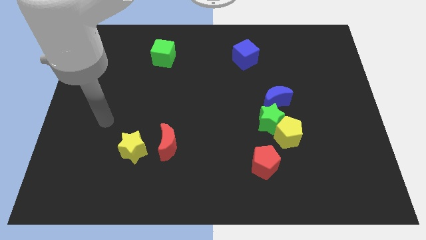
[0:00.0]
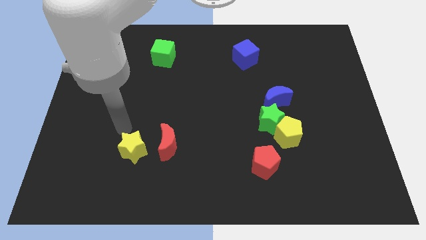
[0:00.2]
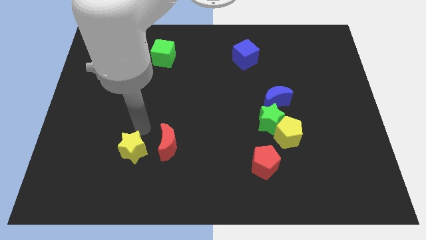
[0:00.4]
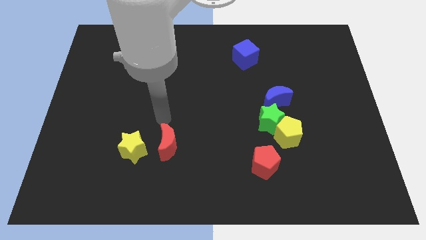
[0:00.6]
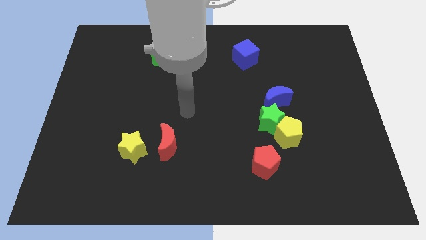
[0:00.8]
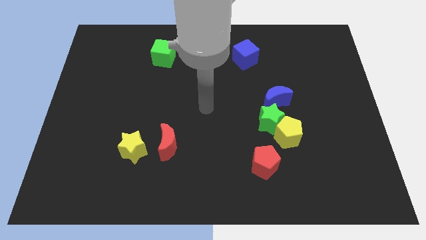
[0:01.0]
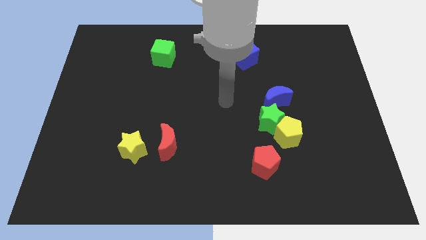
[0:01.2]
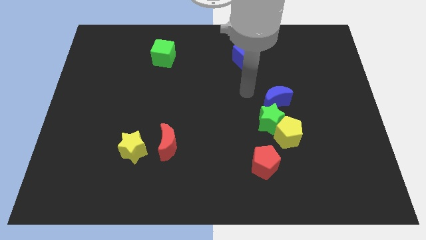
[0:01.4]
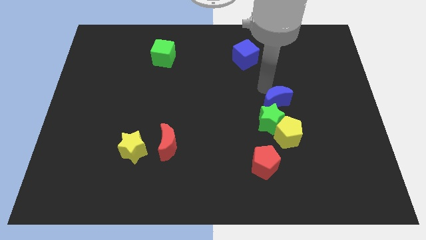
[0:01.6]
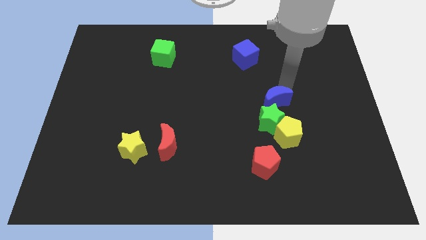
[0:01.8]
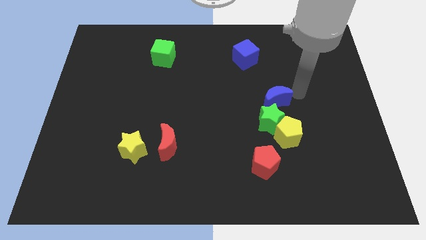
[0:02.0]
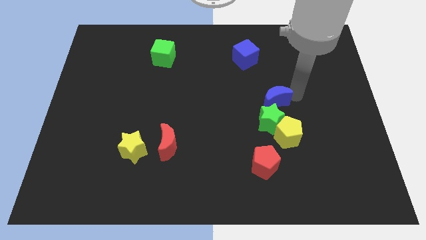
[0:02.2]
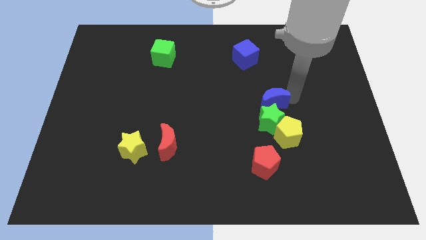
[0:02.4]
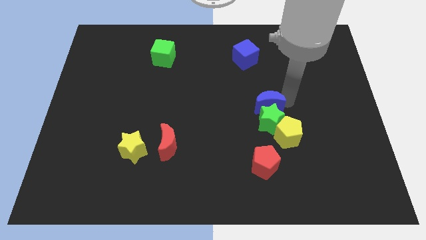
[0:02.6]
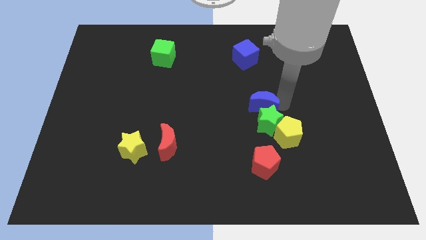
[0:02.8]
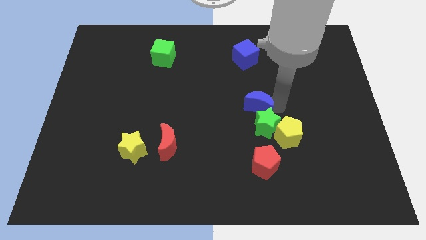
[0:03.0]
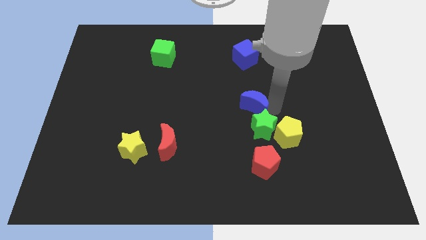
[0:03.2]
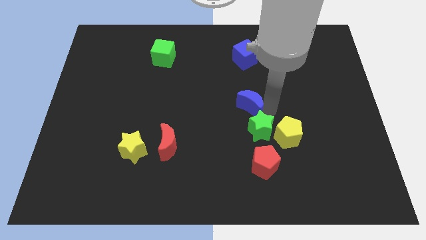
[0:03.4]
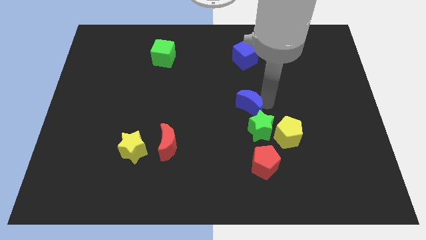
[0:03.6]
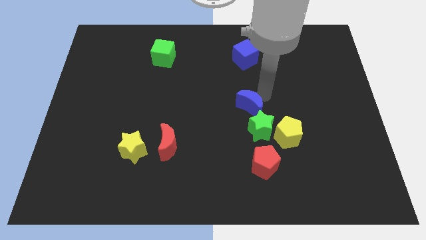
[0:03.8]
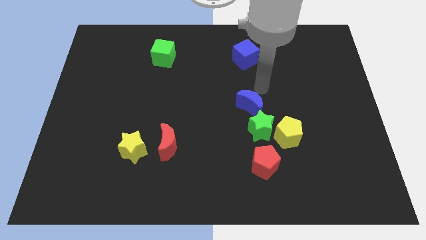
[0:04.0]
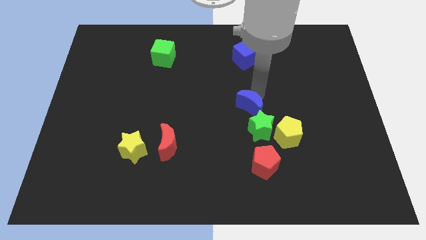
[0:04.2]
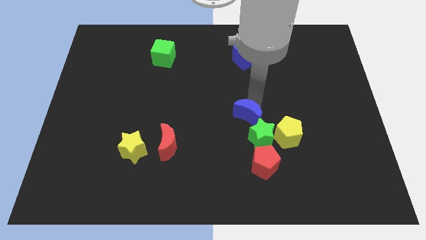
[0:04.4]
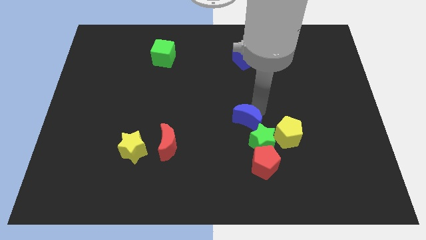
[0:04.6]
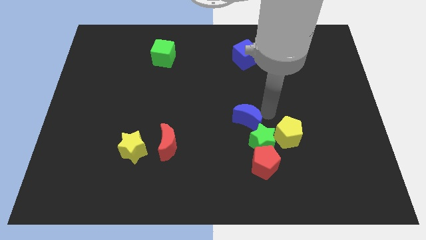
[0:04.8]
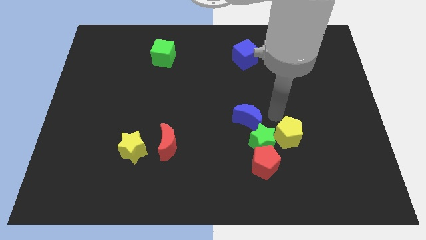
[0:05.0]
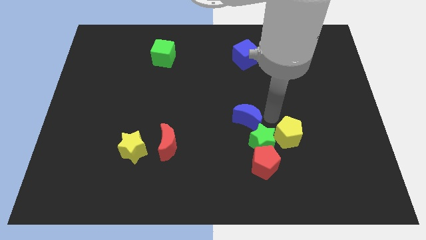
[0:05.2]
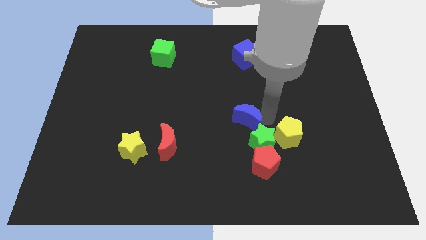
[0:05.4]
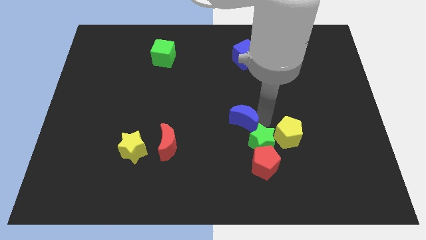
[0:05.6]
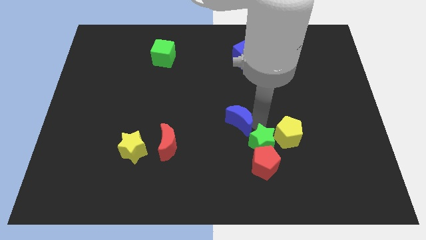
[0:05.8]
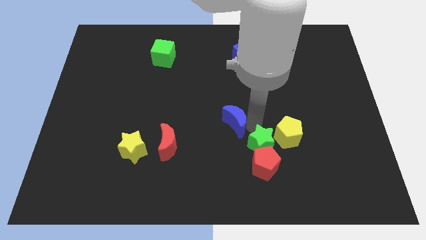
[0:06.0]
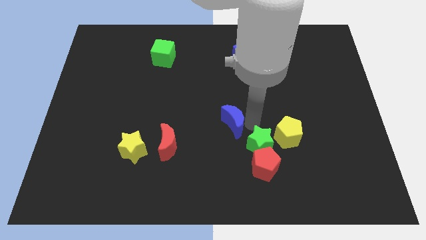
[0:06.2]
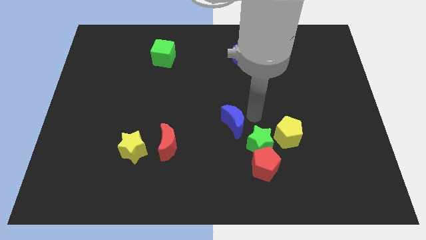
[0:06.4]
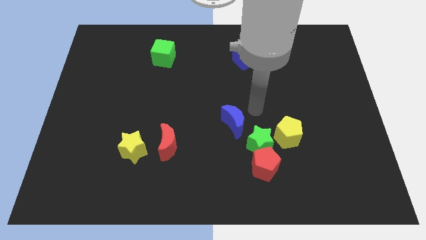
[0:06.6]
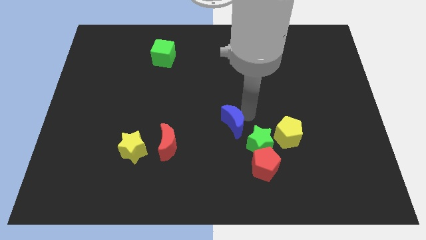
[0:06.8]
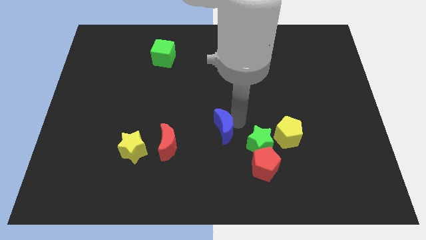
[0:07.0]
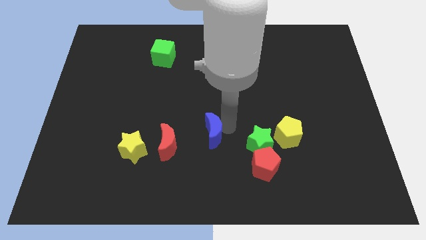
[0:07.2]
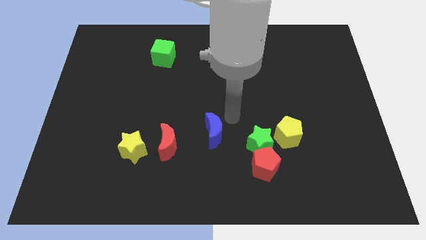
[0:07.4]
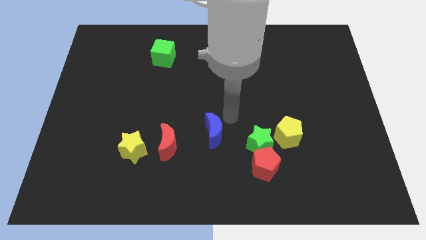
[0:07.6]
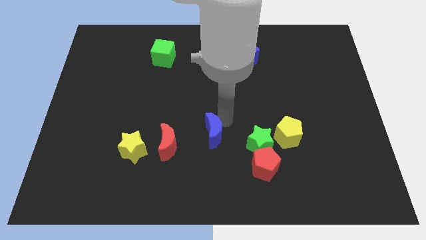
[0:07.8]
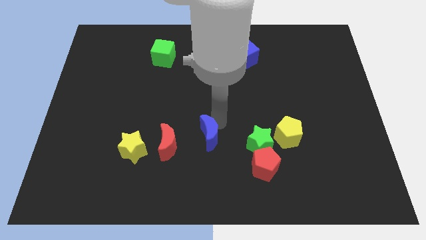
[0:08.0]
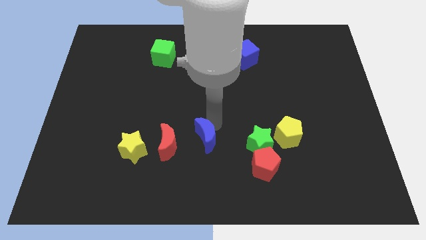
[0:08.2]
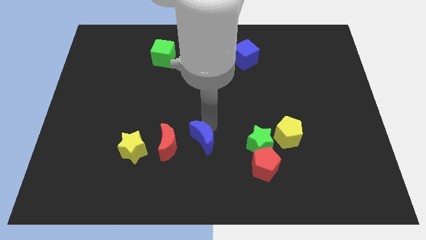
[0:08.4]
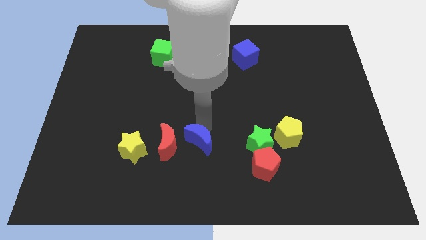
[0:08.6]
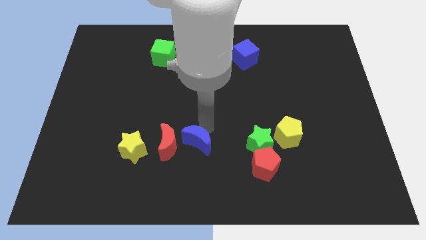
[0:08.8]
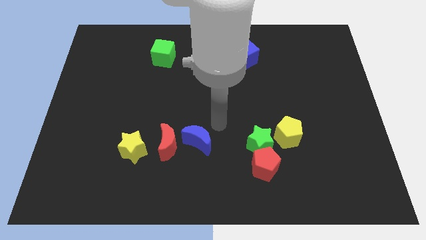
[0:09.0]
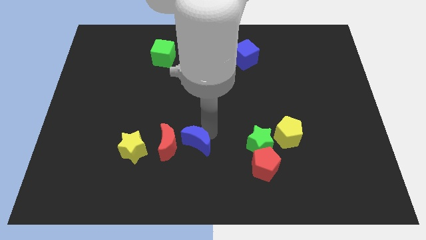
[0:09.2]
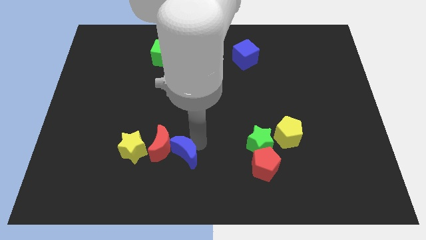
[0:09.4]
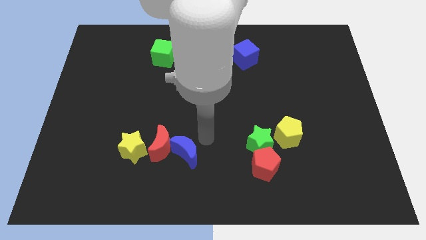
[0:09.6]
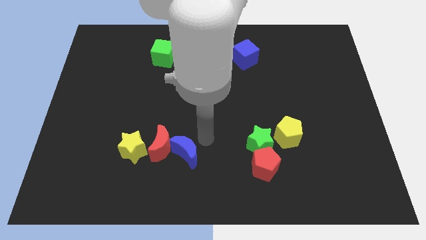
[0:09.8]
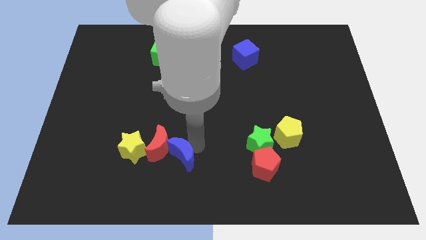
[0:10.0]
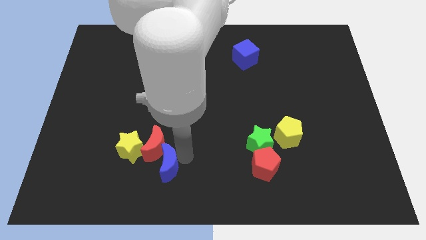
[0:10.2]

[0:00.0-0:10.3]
push the blue moon diagonally down and to the right of the yellow star

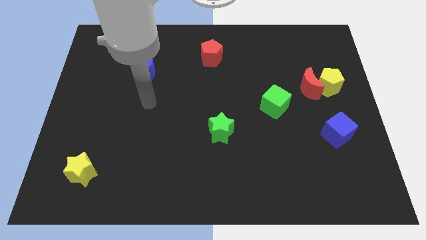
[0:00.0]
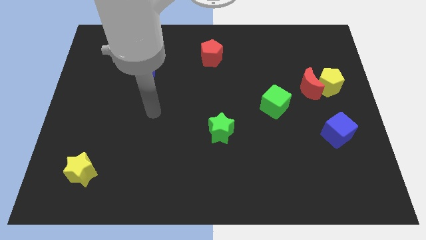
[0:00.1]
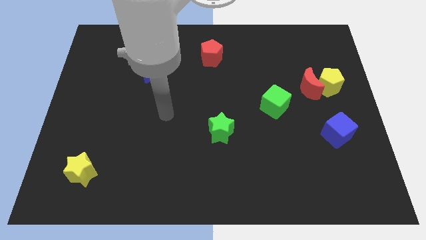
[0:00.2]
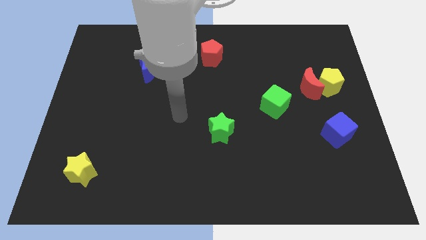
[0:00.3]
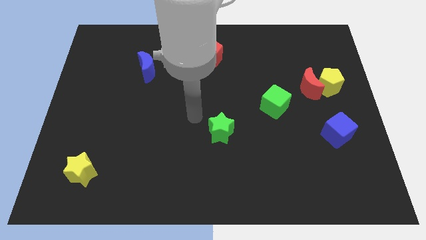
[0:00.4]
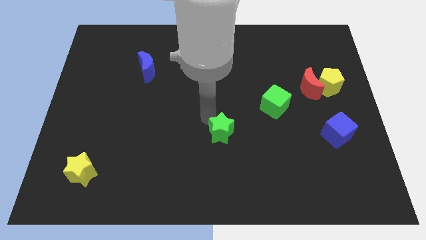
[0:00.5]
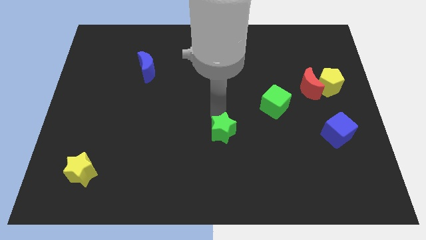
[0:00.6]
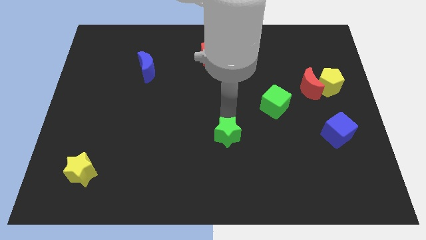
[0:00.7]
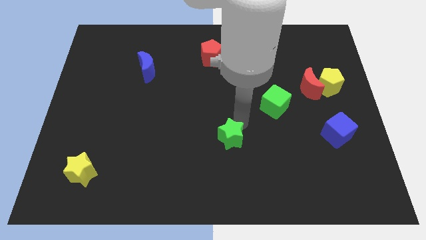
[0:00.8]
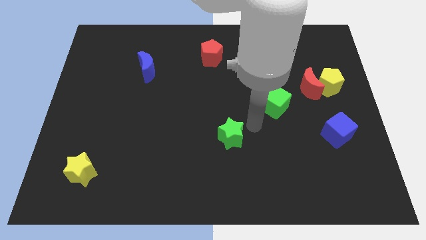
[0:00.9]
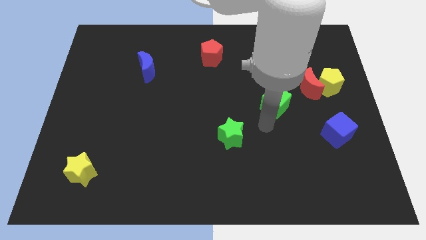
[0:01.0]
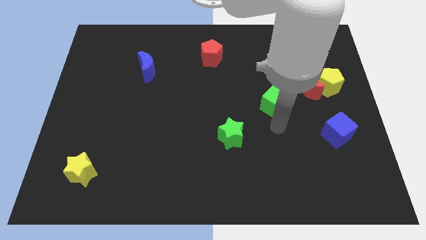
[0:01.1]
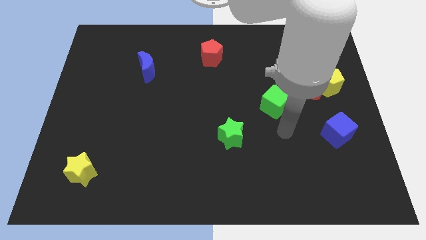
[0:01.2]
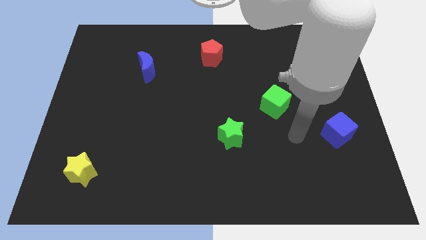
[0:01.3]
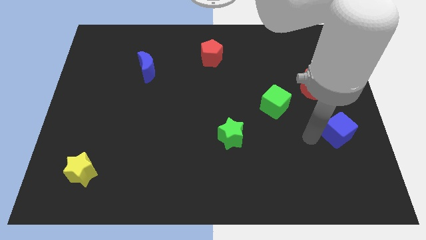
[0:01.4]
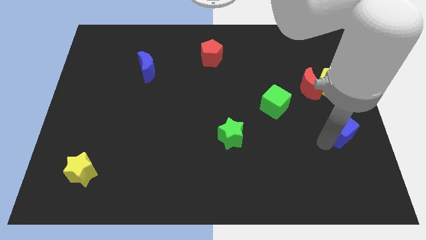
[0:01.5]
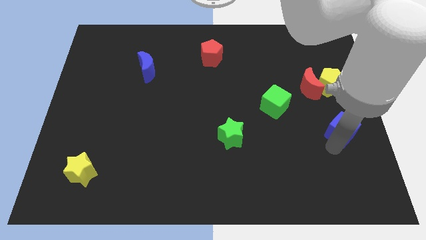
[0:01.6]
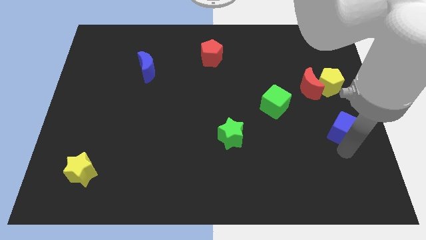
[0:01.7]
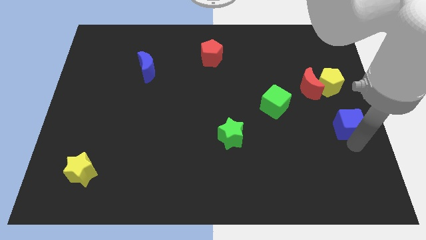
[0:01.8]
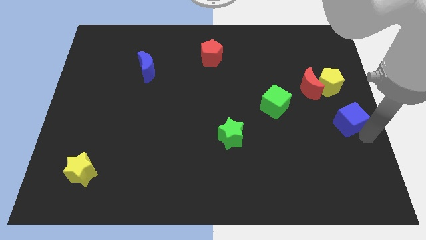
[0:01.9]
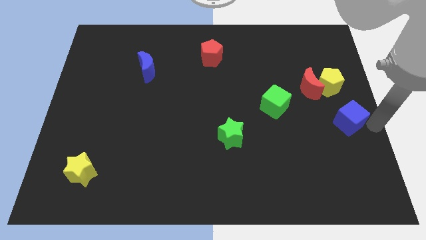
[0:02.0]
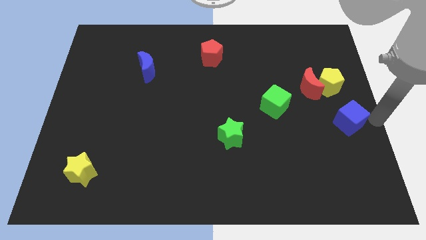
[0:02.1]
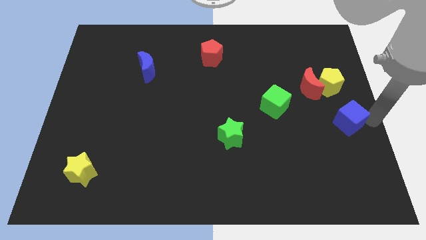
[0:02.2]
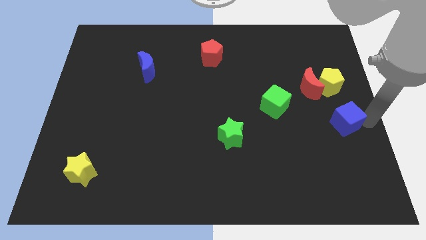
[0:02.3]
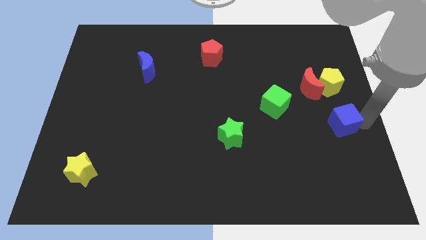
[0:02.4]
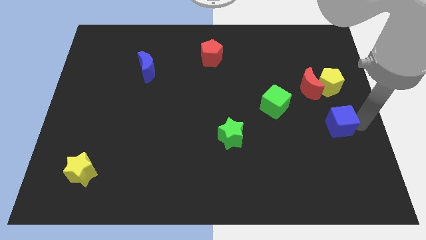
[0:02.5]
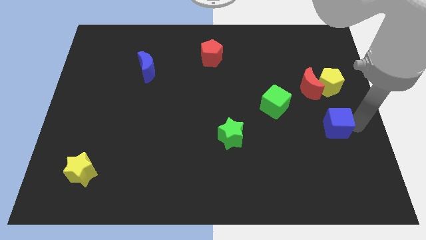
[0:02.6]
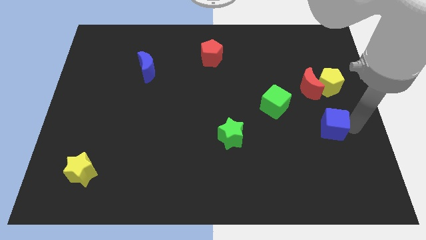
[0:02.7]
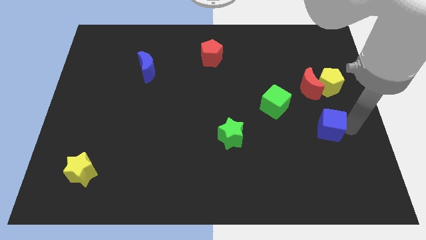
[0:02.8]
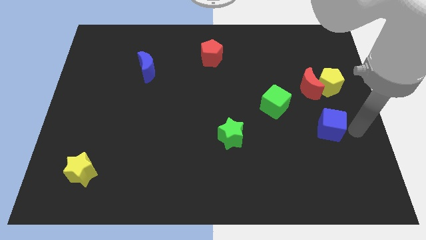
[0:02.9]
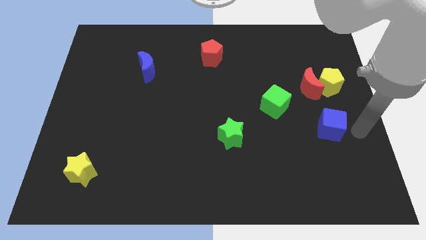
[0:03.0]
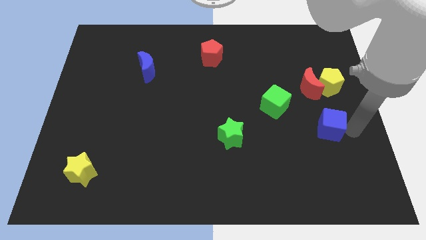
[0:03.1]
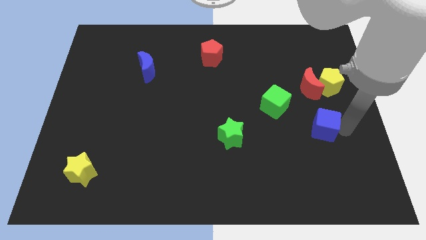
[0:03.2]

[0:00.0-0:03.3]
slide the blue cube diagonally down and to the right of the green cube
